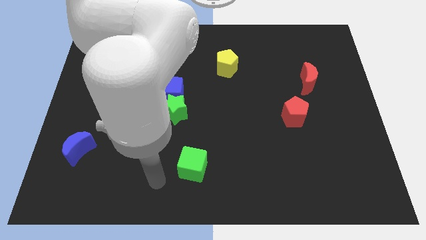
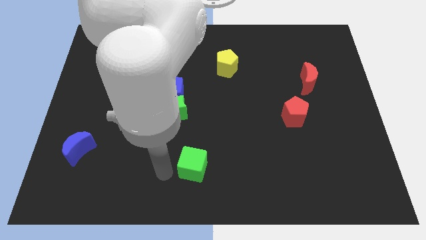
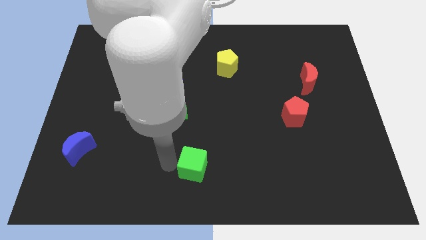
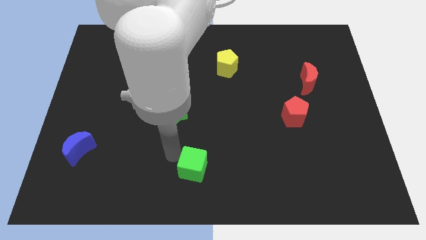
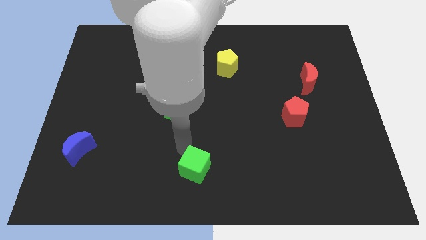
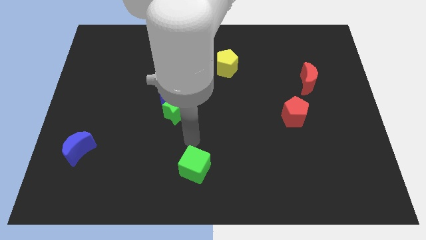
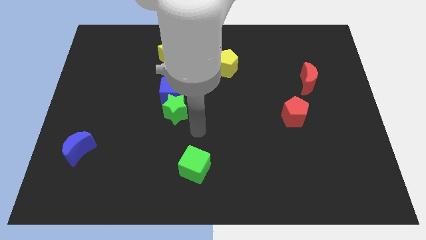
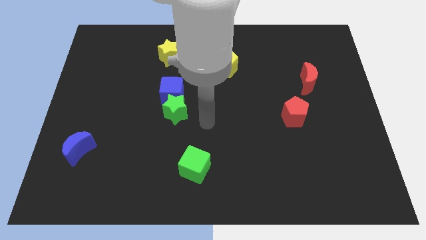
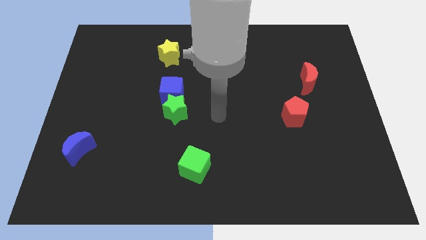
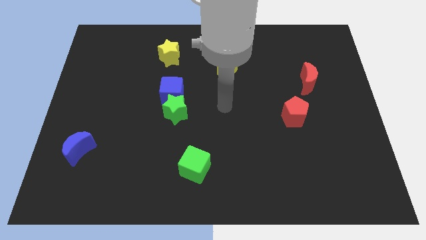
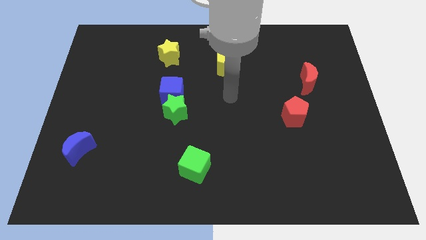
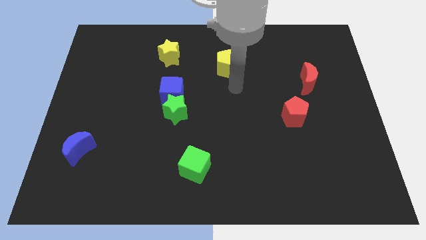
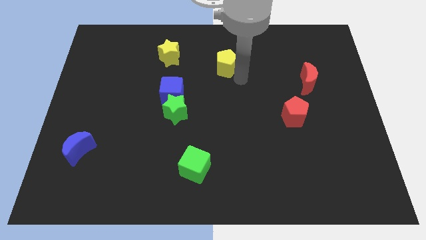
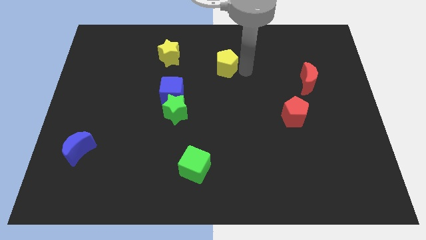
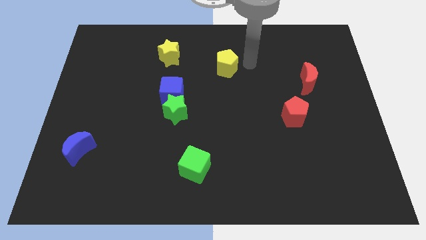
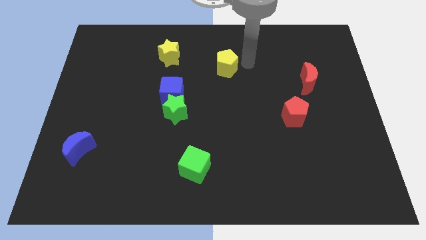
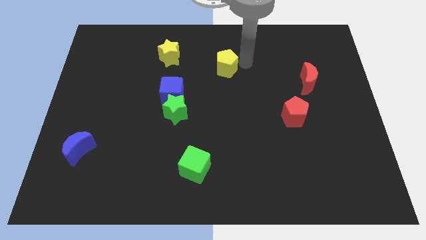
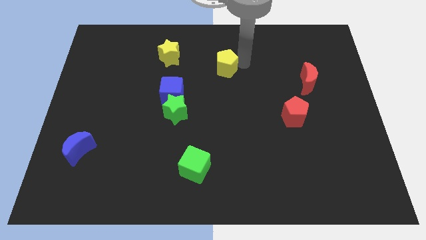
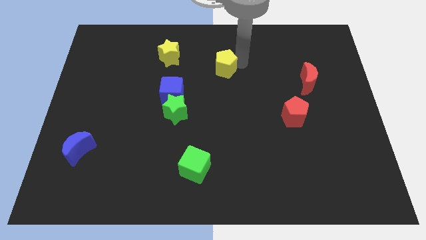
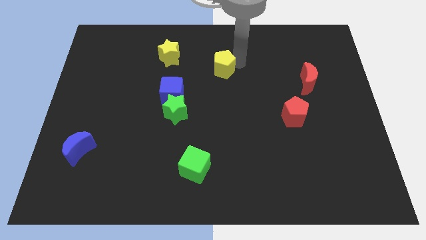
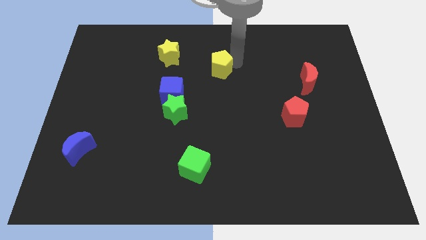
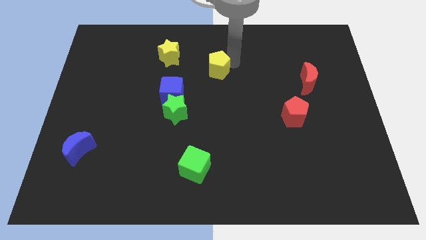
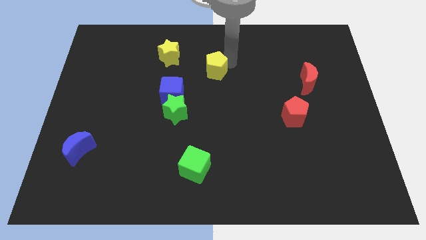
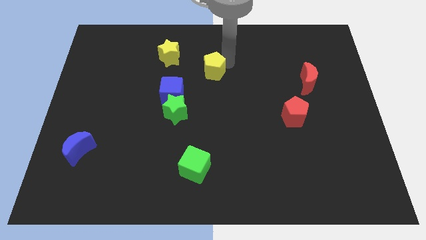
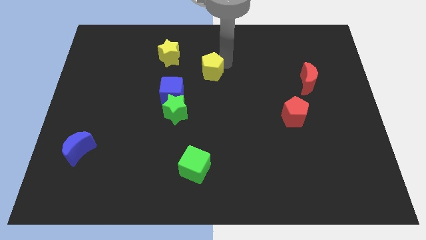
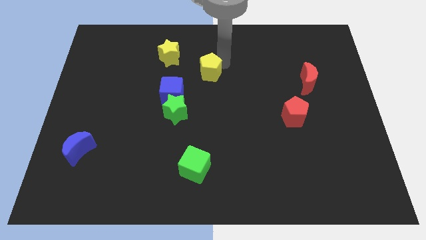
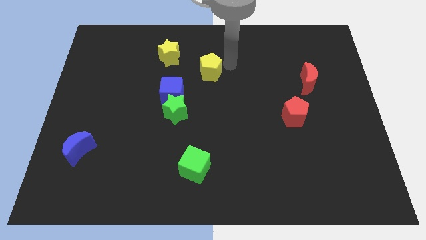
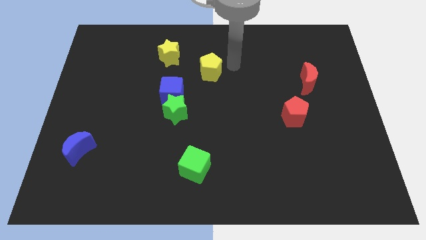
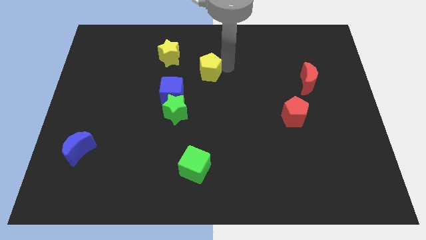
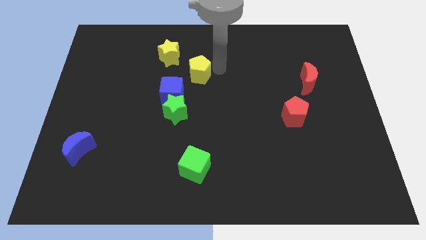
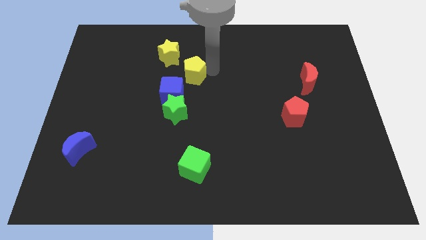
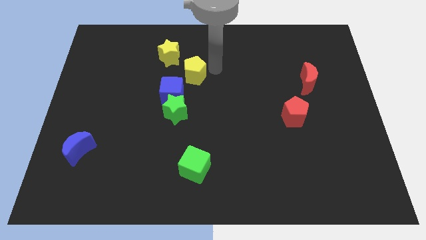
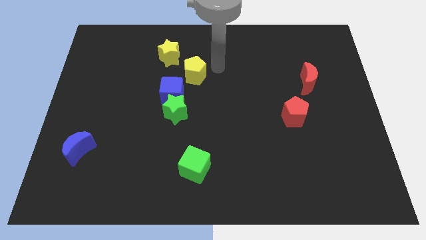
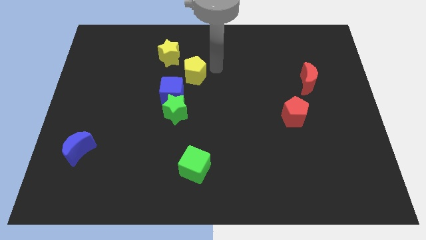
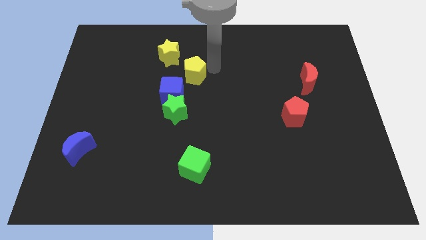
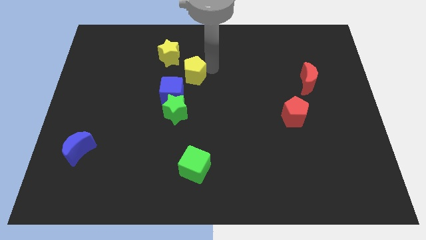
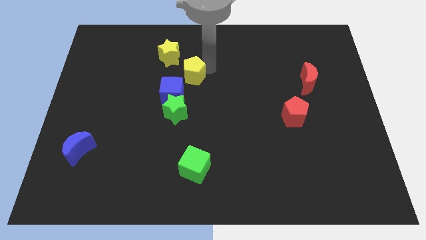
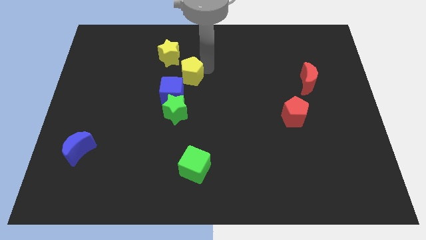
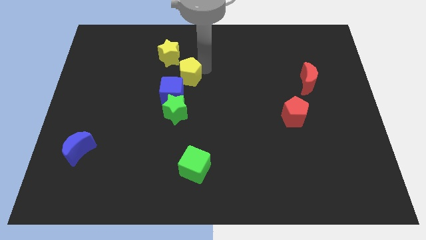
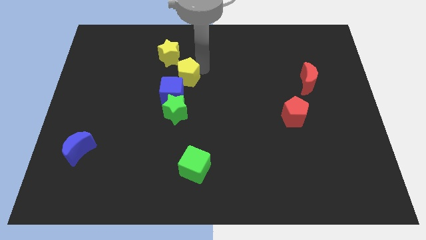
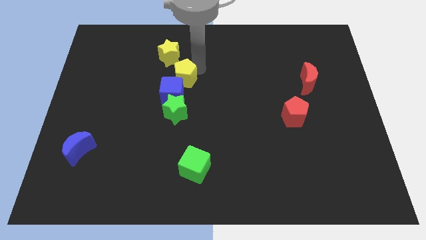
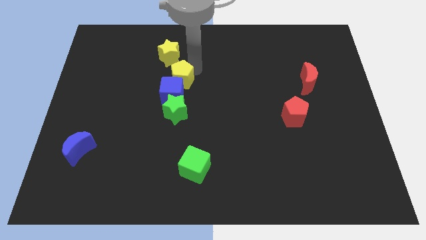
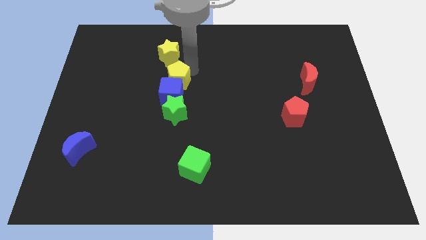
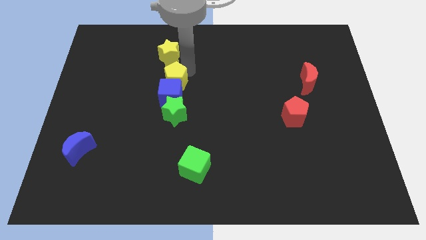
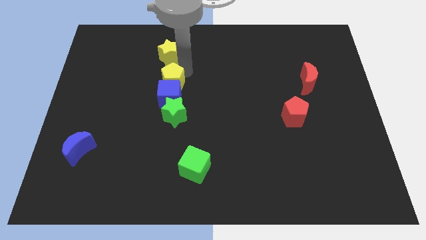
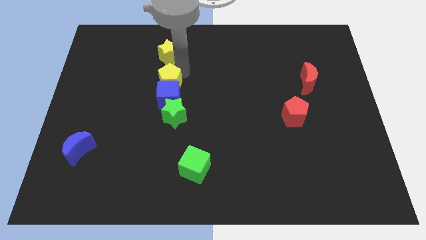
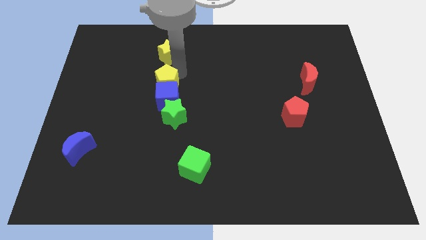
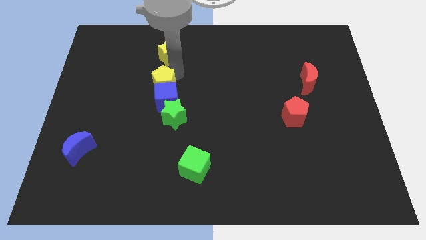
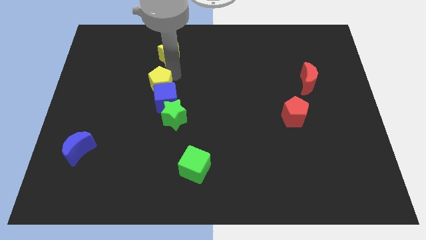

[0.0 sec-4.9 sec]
move the yellow pentagon to the top left of the green star

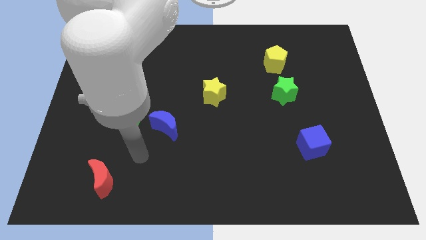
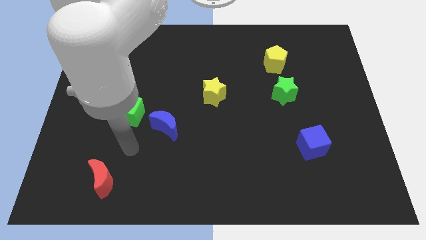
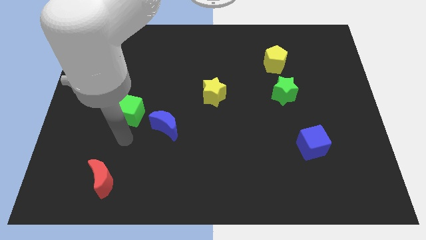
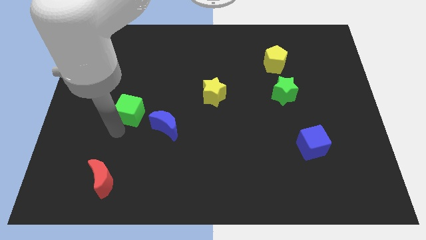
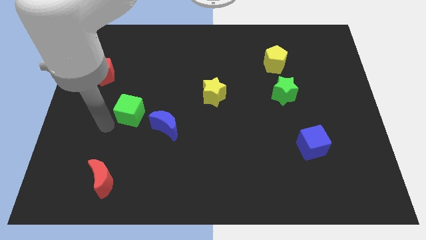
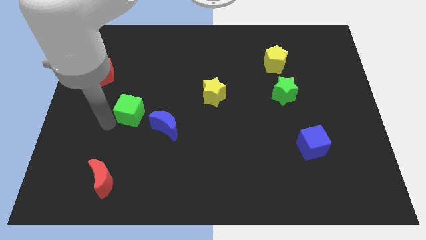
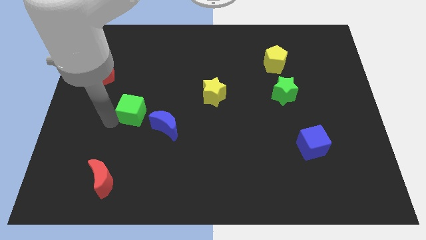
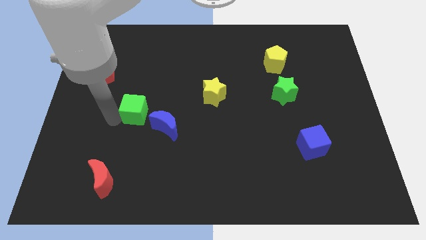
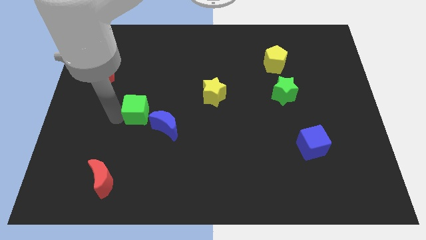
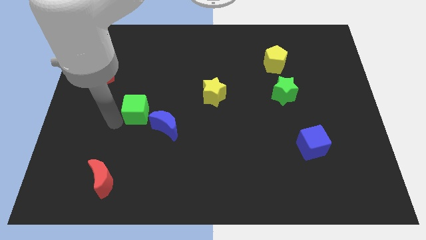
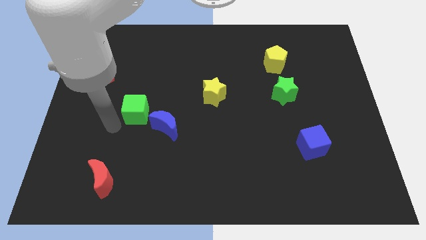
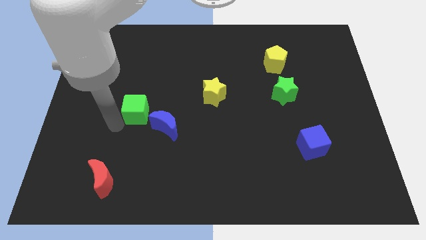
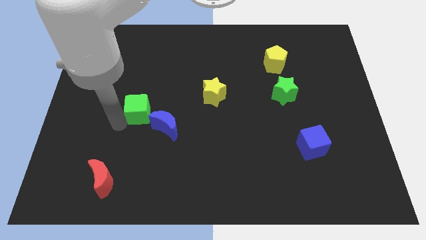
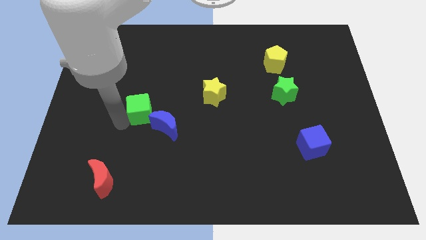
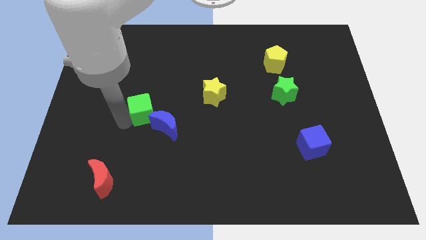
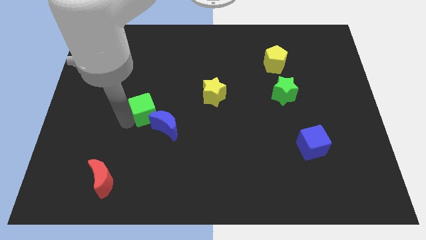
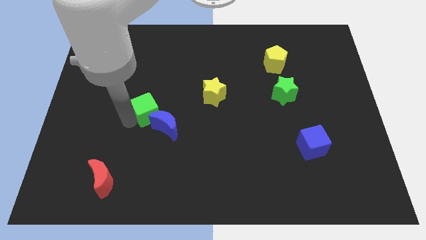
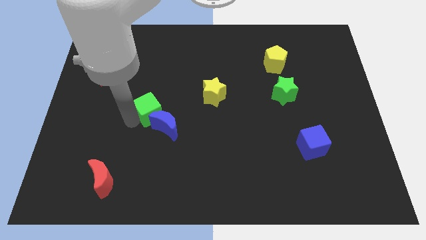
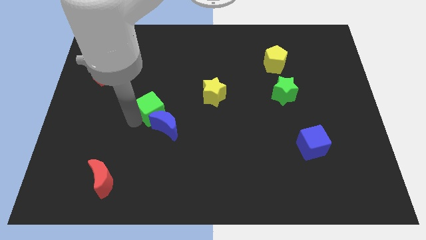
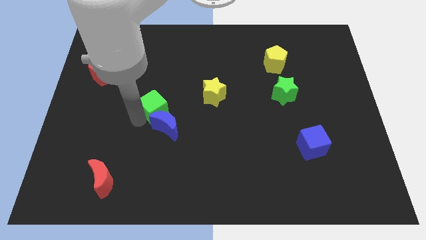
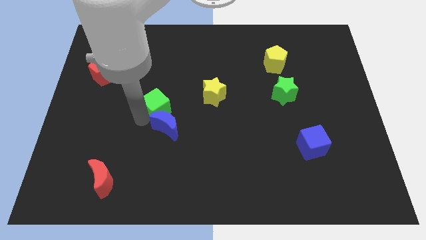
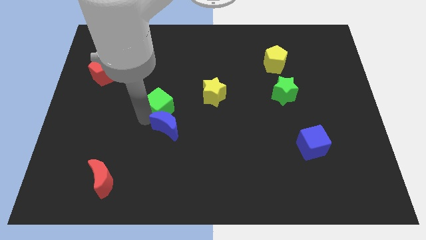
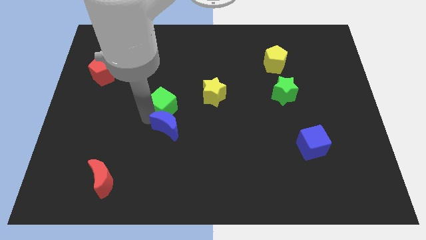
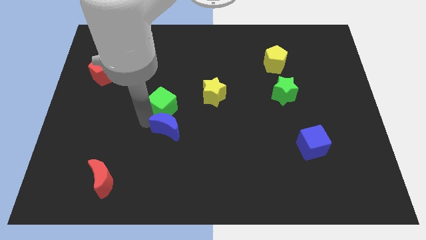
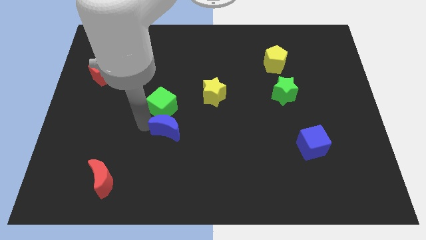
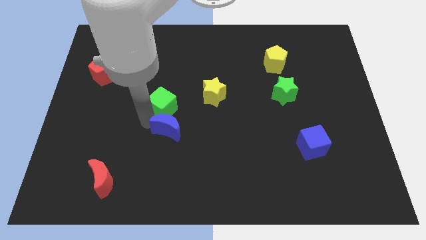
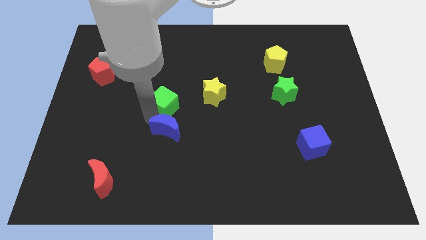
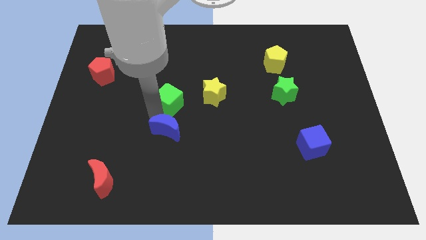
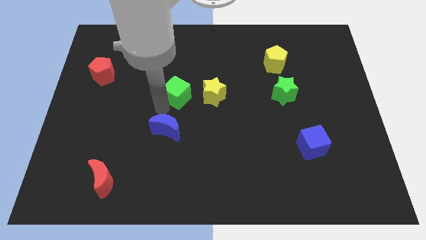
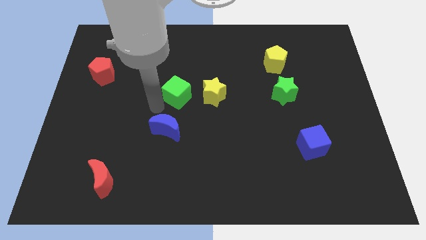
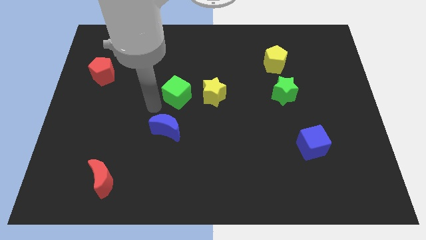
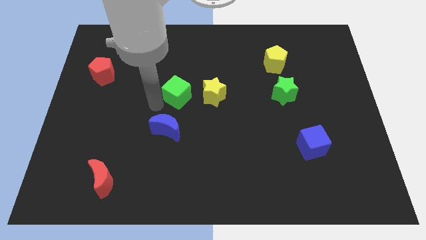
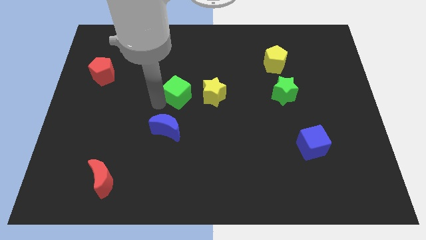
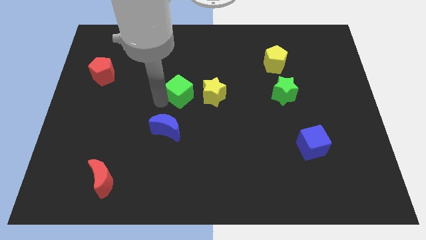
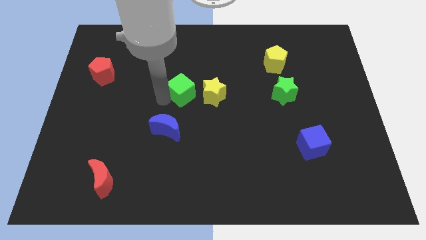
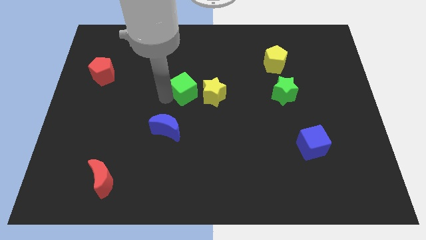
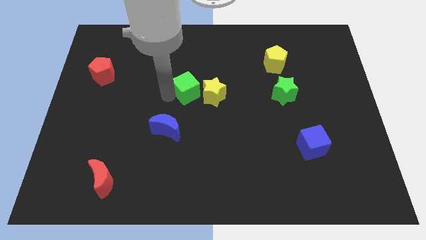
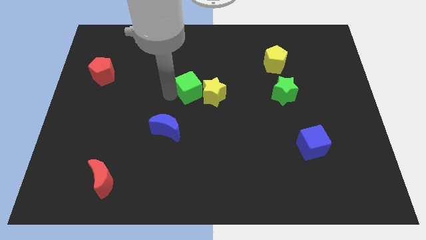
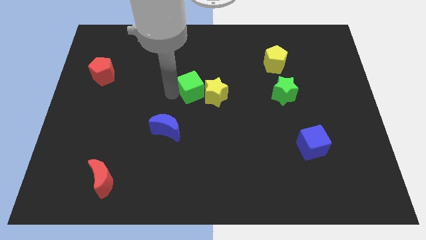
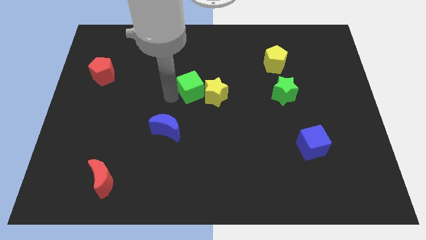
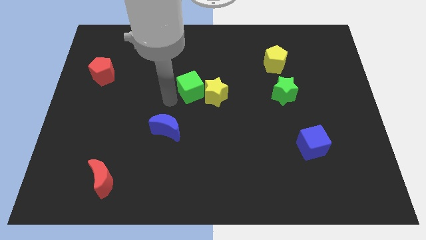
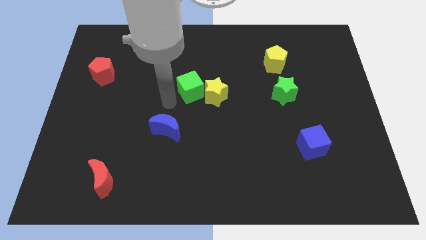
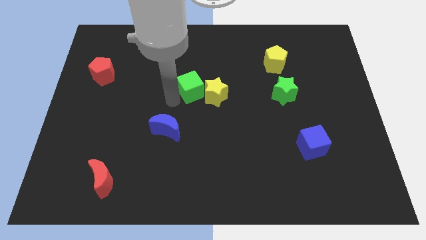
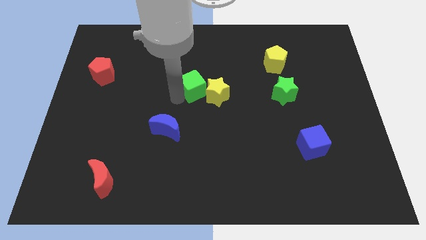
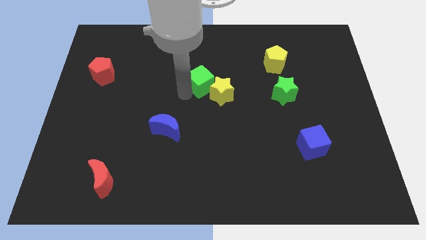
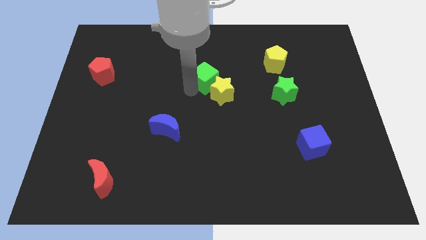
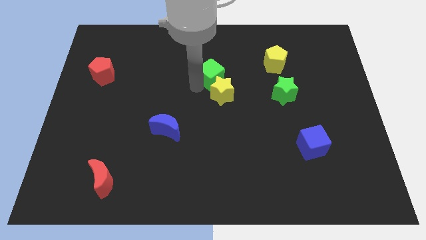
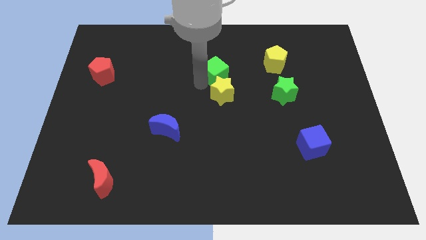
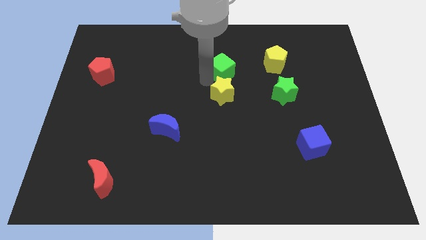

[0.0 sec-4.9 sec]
move the green cube left of the yellow pentagon
